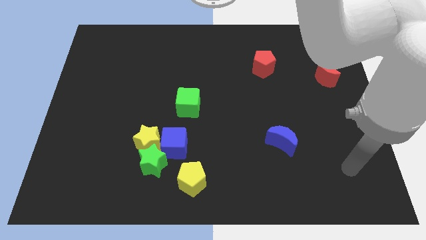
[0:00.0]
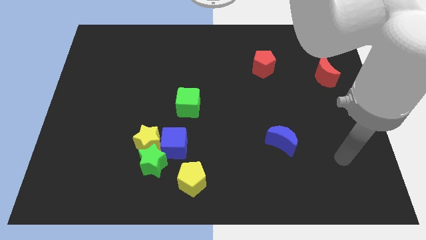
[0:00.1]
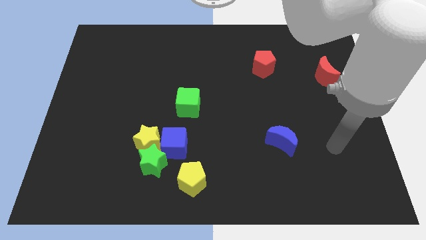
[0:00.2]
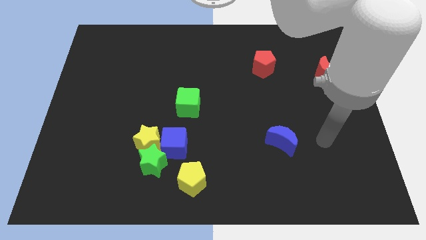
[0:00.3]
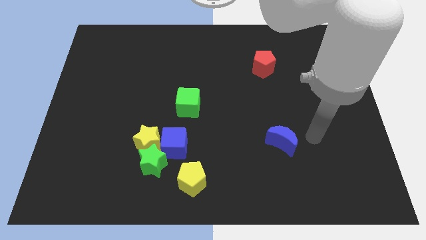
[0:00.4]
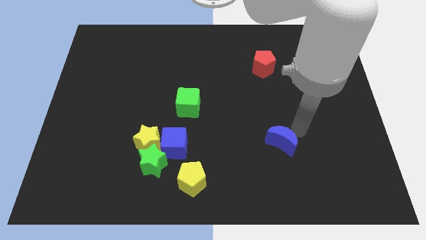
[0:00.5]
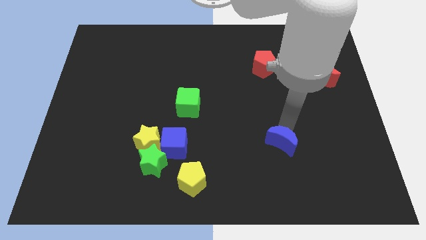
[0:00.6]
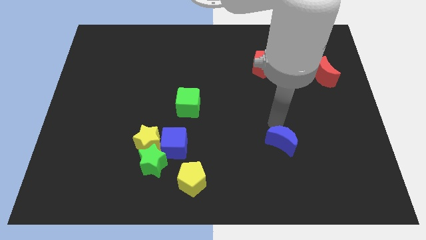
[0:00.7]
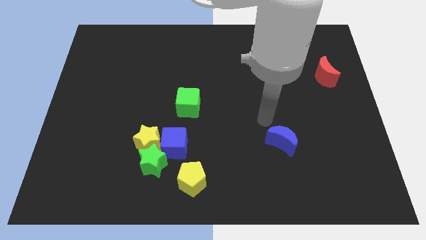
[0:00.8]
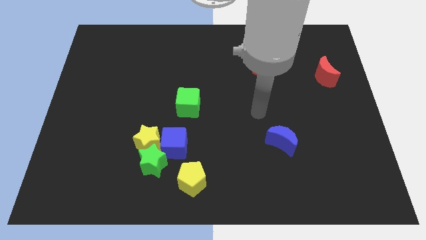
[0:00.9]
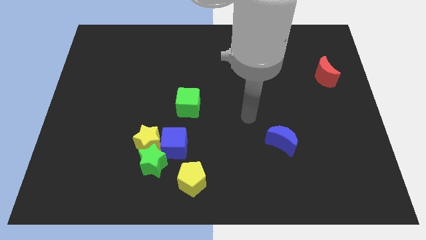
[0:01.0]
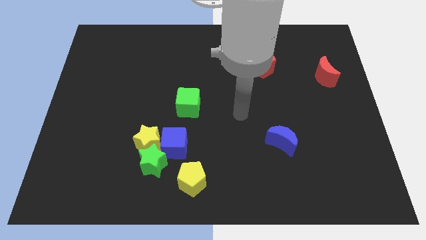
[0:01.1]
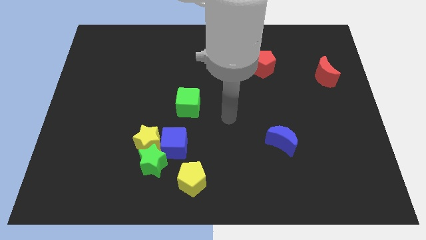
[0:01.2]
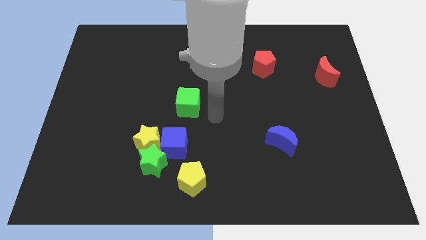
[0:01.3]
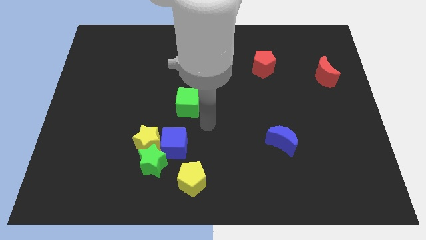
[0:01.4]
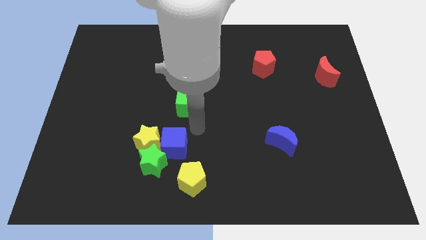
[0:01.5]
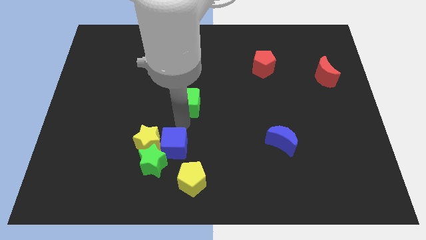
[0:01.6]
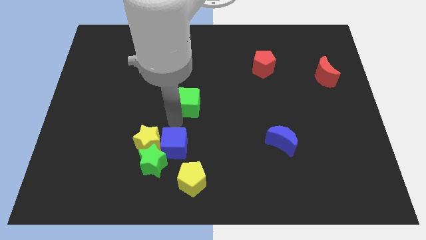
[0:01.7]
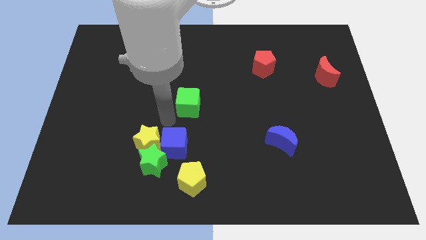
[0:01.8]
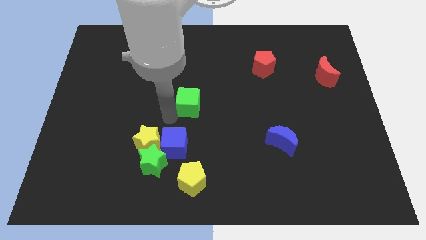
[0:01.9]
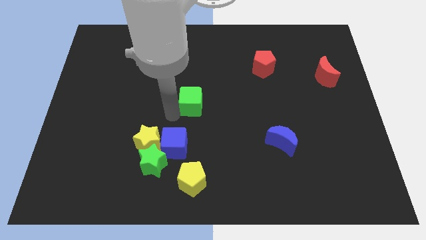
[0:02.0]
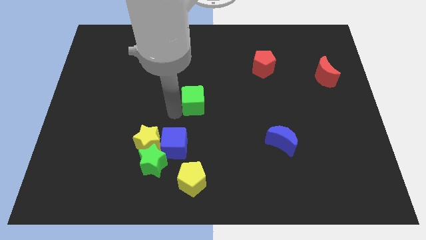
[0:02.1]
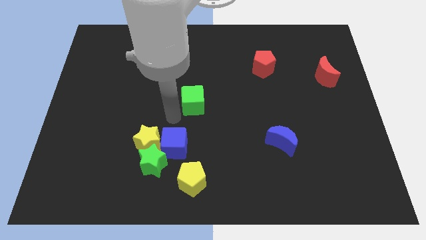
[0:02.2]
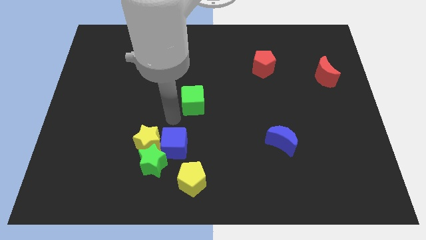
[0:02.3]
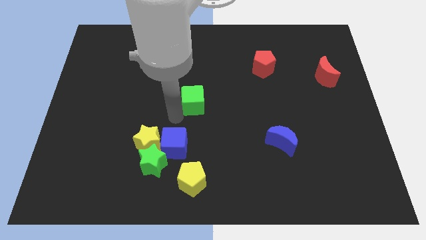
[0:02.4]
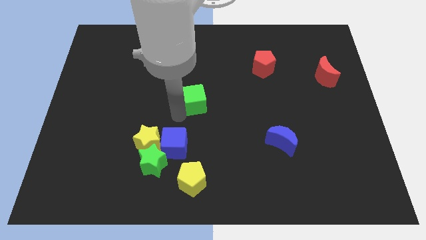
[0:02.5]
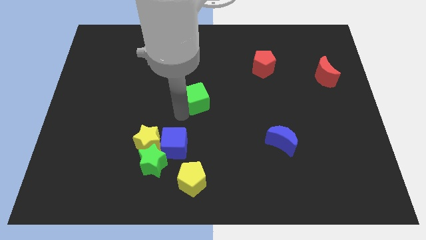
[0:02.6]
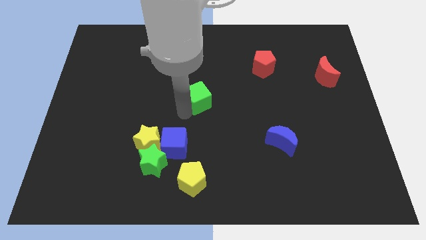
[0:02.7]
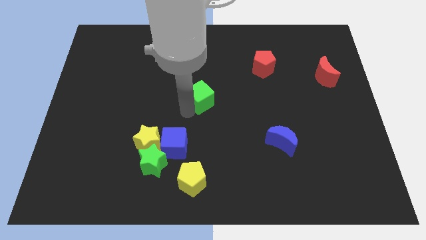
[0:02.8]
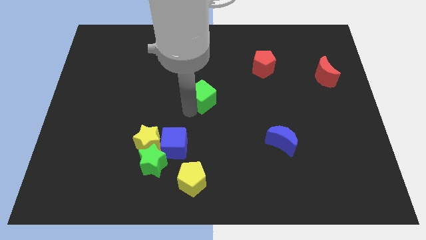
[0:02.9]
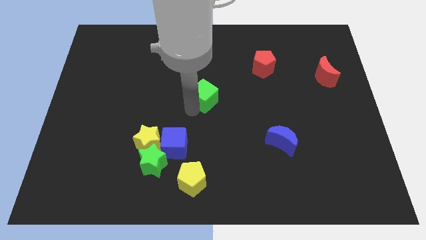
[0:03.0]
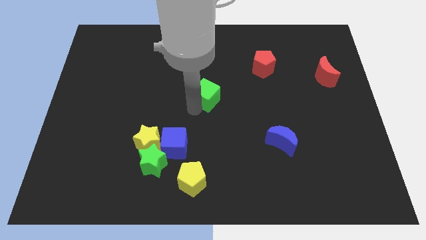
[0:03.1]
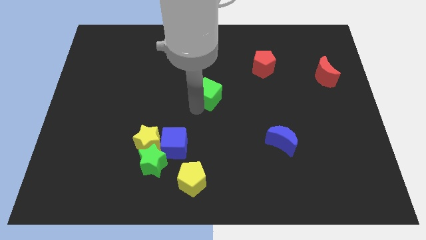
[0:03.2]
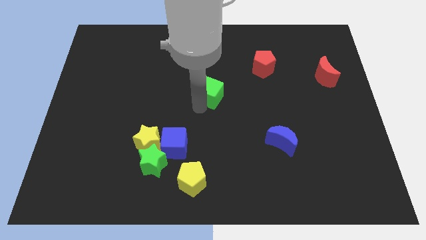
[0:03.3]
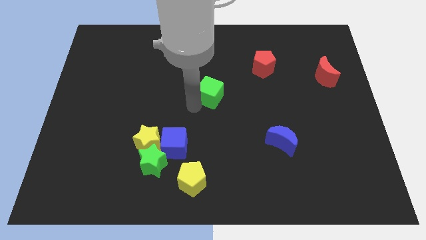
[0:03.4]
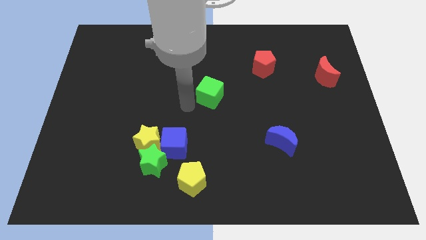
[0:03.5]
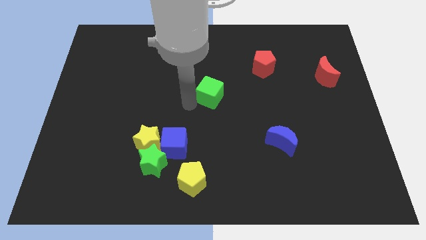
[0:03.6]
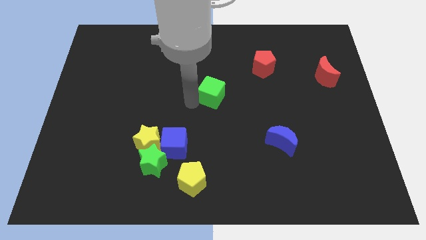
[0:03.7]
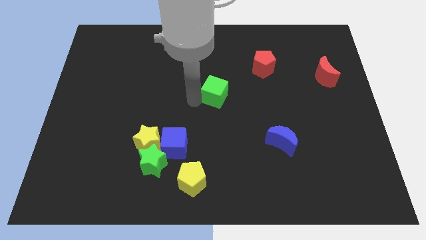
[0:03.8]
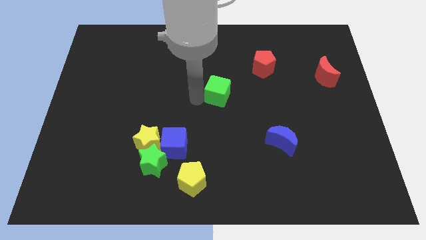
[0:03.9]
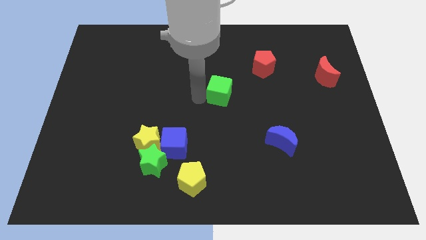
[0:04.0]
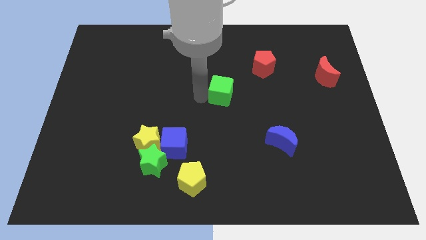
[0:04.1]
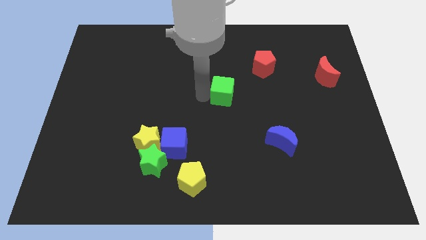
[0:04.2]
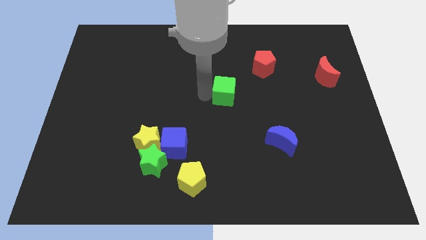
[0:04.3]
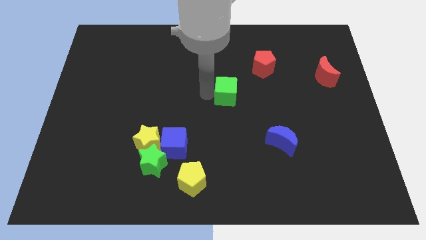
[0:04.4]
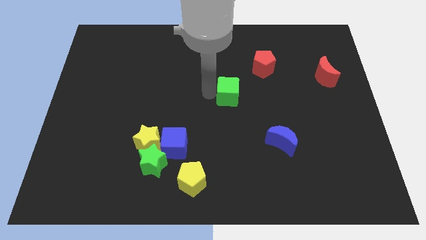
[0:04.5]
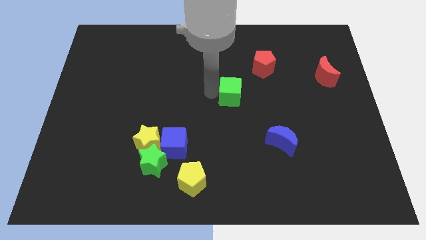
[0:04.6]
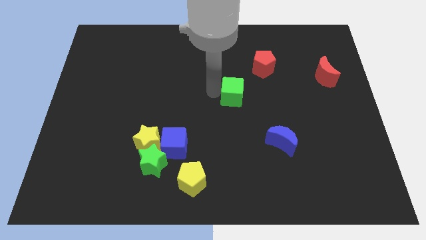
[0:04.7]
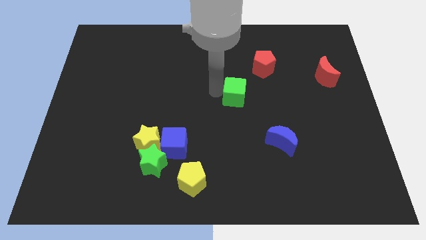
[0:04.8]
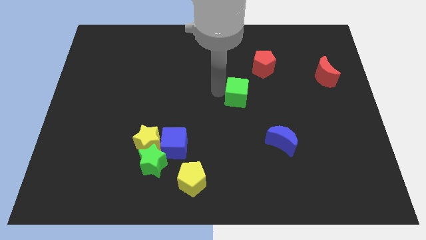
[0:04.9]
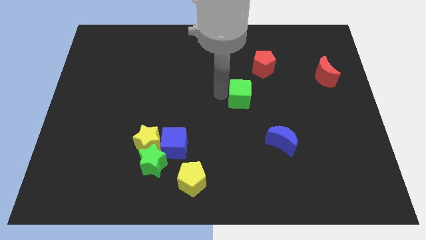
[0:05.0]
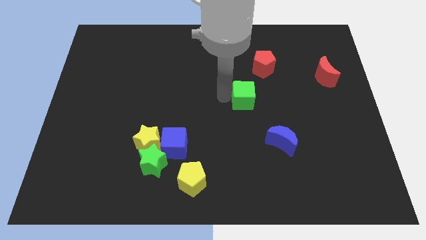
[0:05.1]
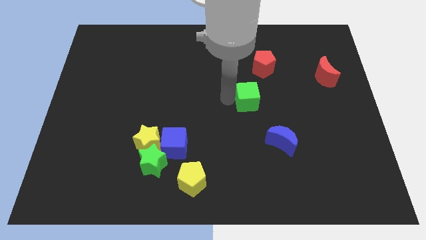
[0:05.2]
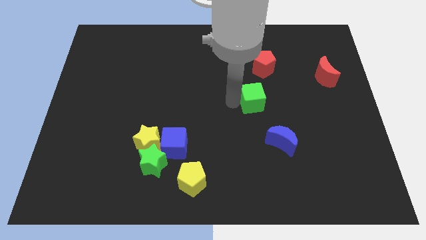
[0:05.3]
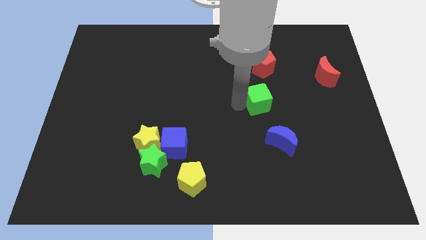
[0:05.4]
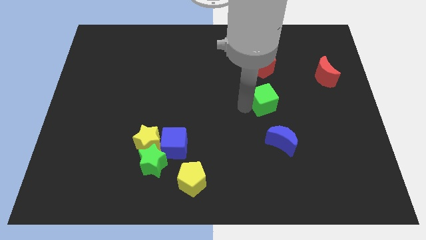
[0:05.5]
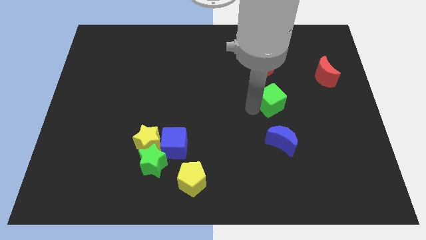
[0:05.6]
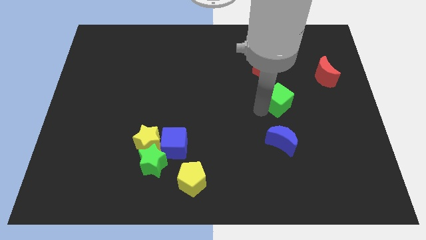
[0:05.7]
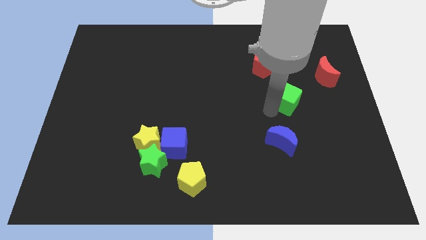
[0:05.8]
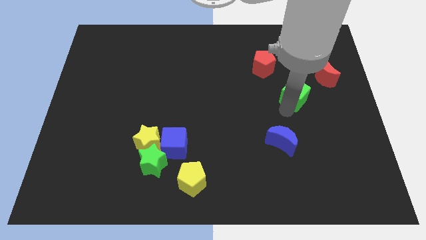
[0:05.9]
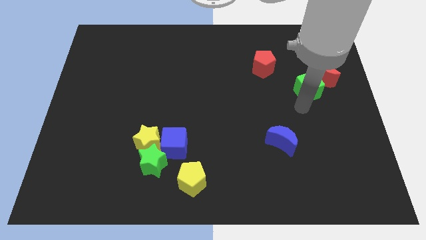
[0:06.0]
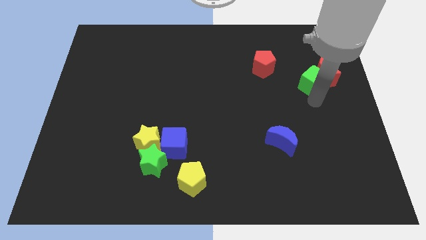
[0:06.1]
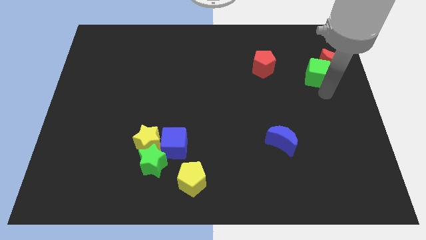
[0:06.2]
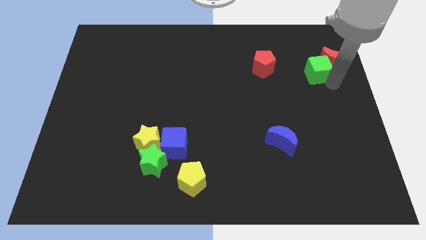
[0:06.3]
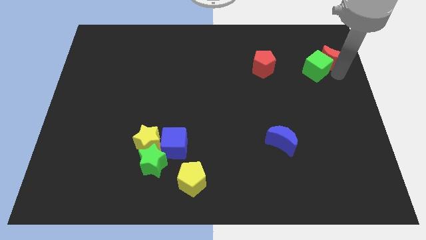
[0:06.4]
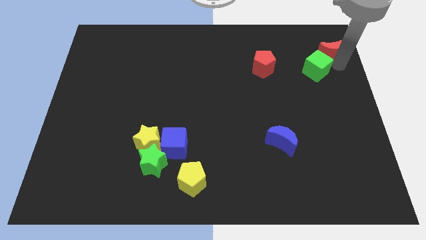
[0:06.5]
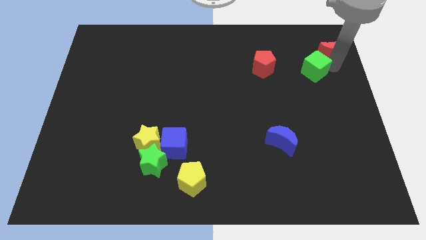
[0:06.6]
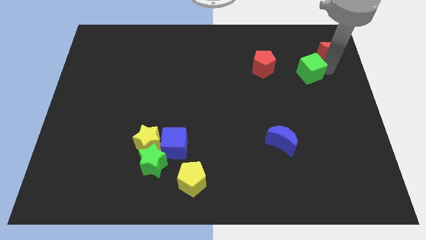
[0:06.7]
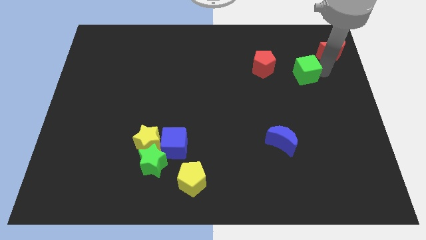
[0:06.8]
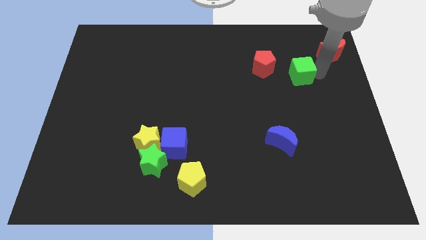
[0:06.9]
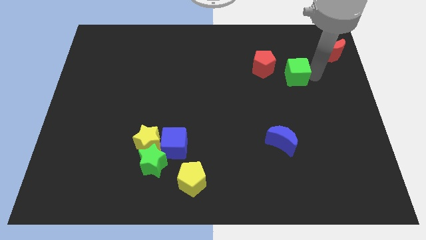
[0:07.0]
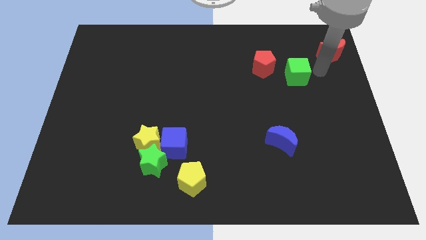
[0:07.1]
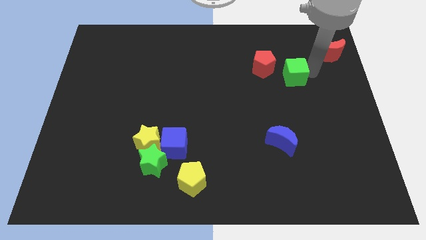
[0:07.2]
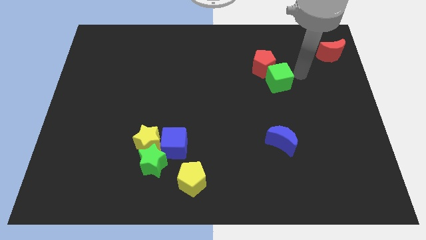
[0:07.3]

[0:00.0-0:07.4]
slide the green cube towards the red pentagon
